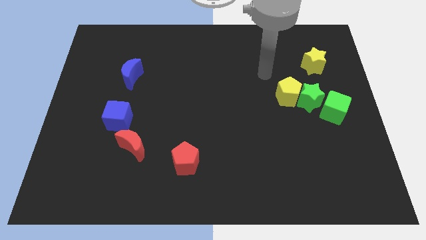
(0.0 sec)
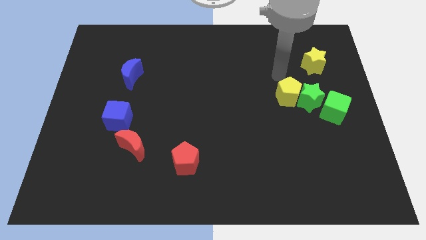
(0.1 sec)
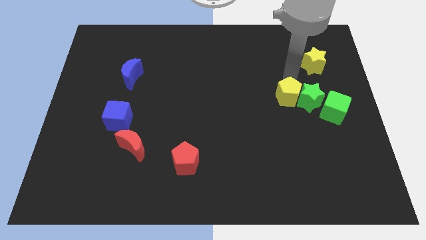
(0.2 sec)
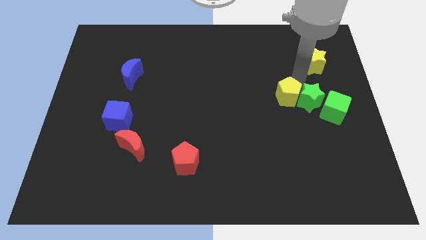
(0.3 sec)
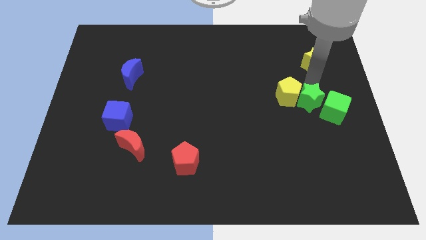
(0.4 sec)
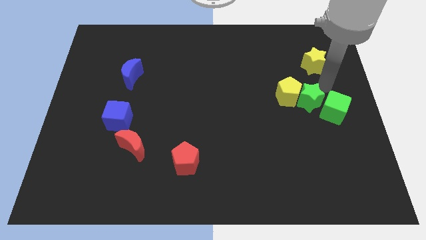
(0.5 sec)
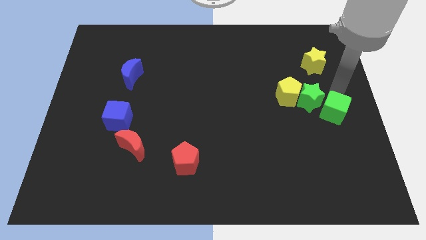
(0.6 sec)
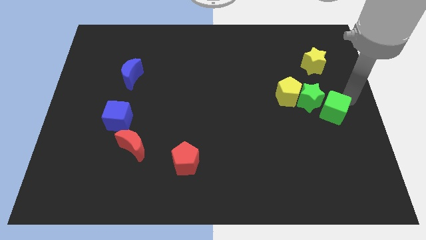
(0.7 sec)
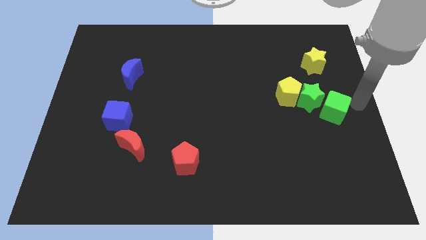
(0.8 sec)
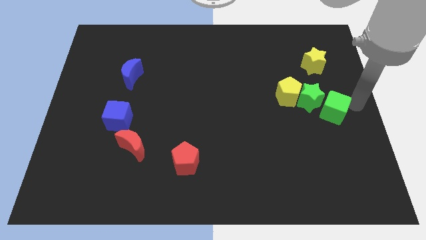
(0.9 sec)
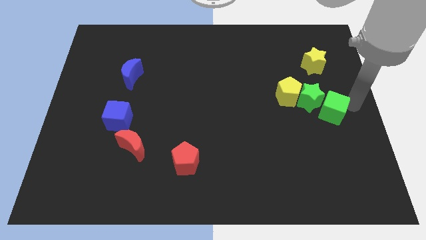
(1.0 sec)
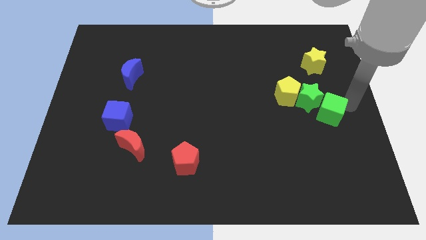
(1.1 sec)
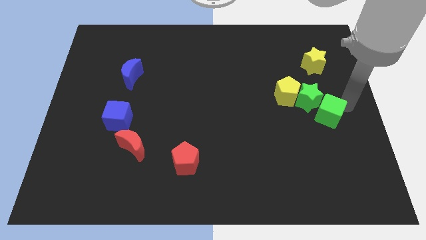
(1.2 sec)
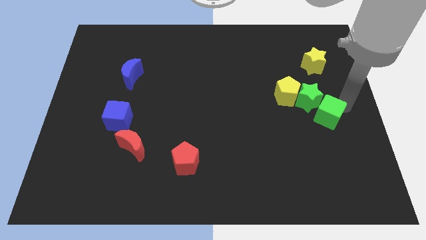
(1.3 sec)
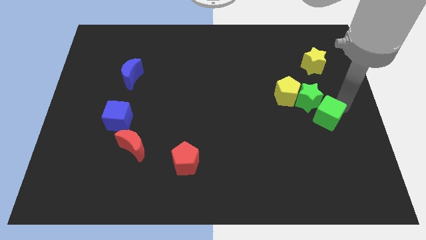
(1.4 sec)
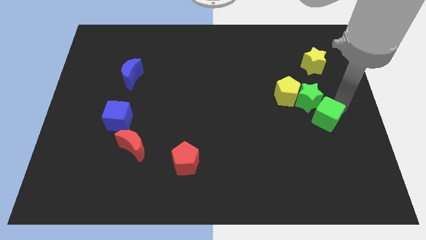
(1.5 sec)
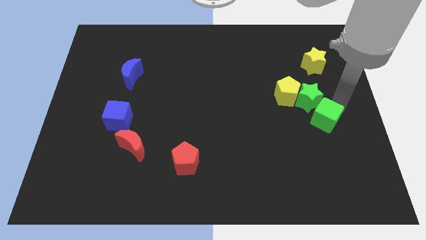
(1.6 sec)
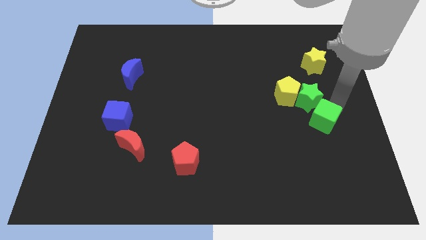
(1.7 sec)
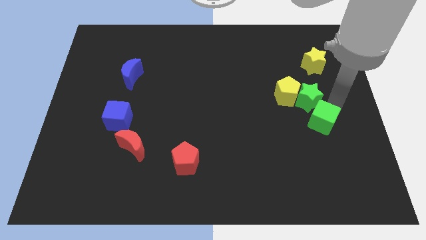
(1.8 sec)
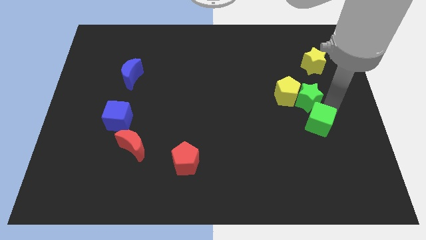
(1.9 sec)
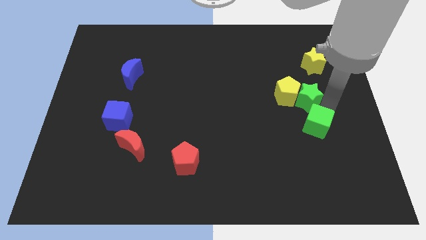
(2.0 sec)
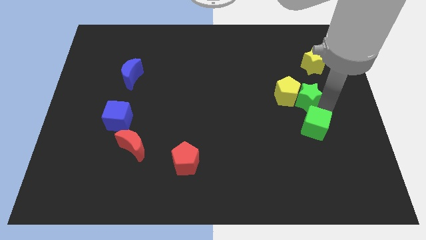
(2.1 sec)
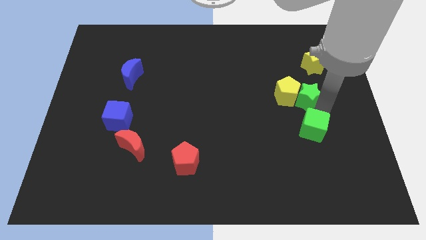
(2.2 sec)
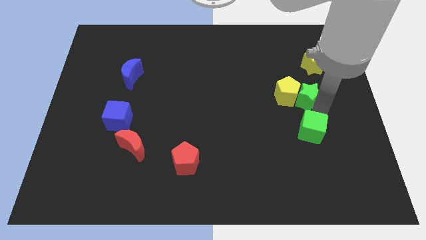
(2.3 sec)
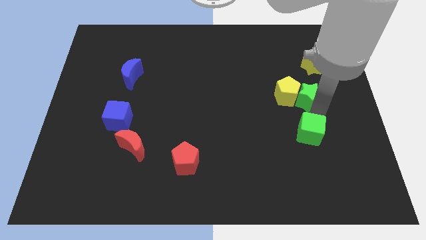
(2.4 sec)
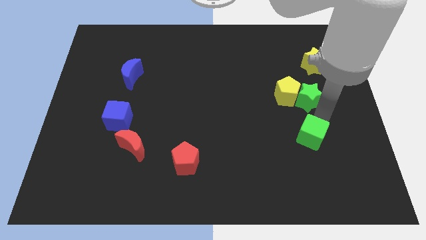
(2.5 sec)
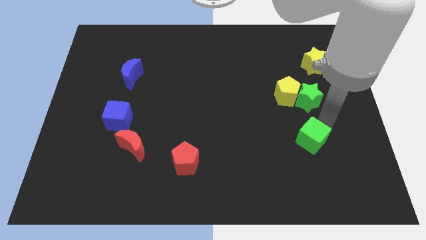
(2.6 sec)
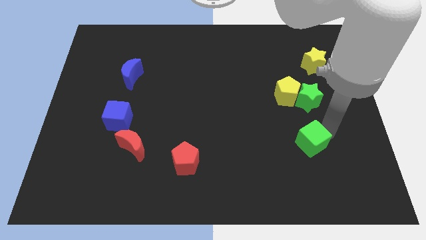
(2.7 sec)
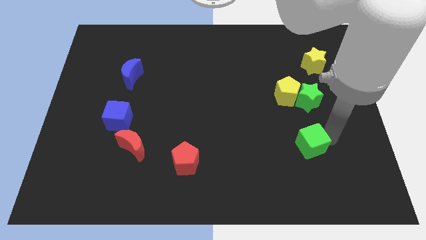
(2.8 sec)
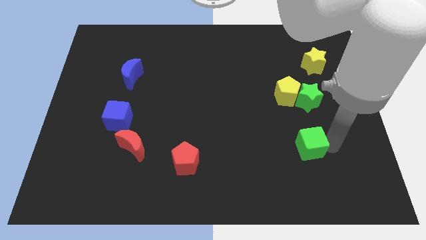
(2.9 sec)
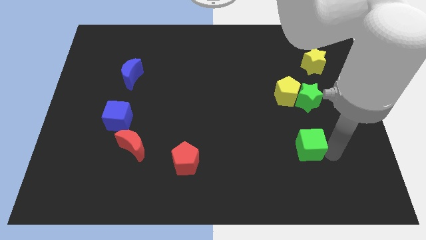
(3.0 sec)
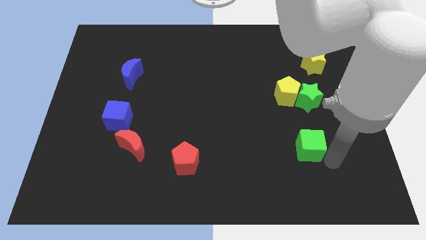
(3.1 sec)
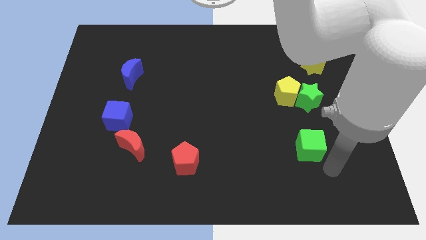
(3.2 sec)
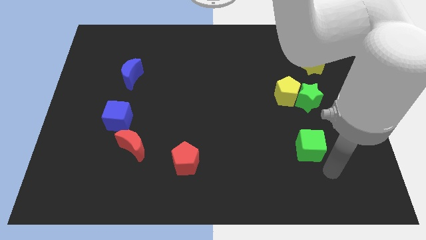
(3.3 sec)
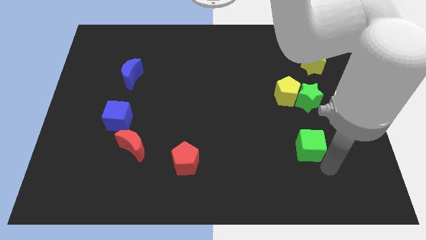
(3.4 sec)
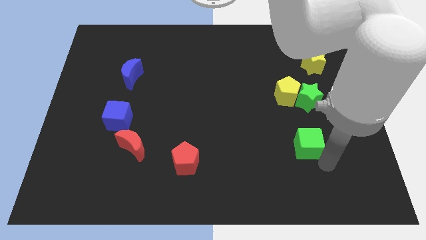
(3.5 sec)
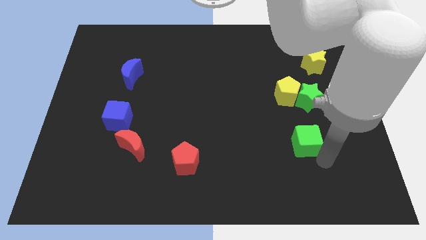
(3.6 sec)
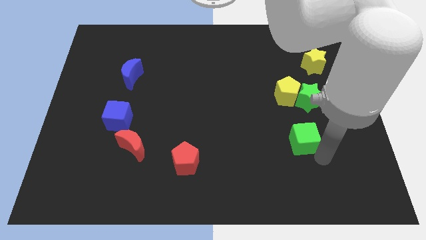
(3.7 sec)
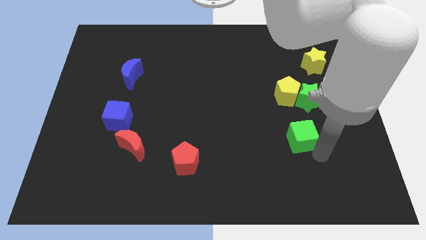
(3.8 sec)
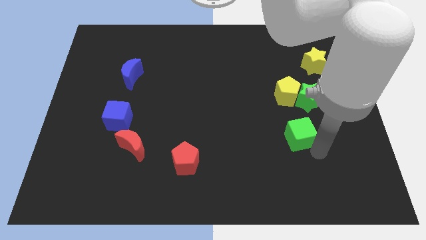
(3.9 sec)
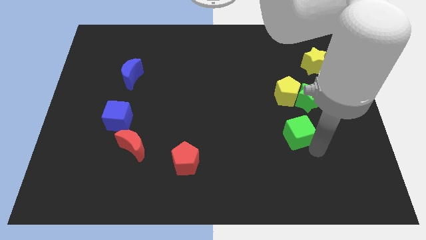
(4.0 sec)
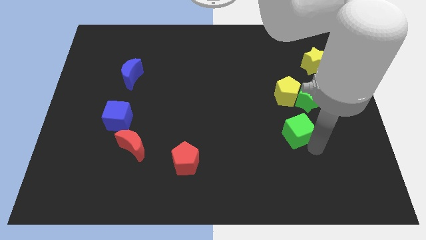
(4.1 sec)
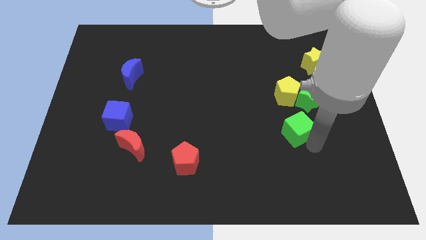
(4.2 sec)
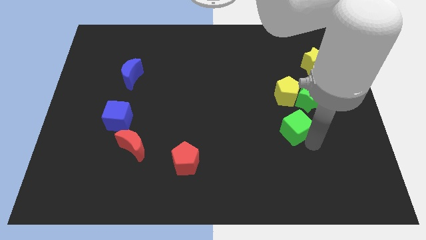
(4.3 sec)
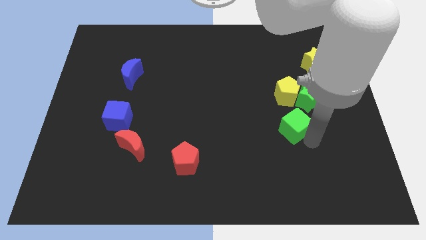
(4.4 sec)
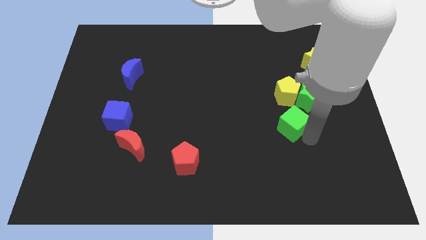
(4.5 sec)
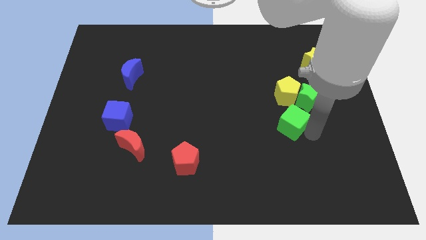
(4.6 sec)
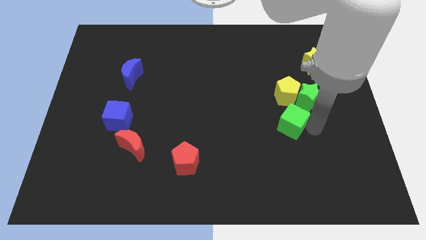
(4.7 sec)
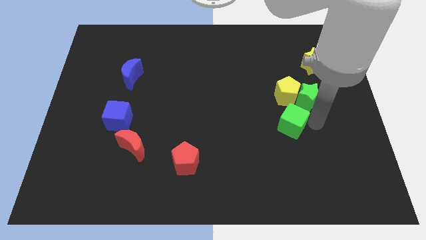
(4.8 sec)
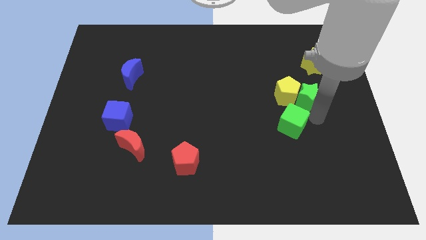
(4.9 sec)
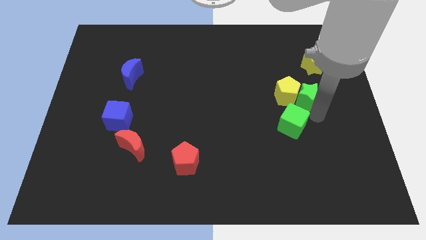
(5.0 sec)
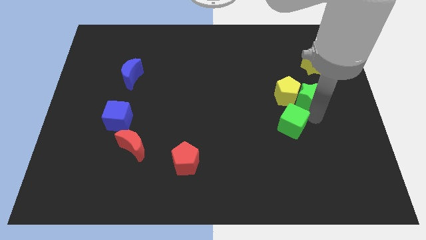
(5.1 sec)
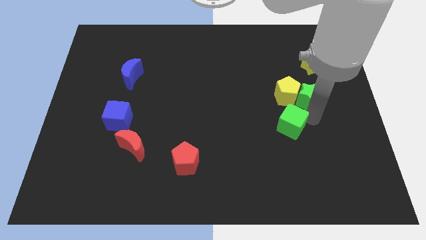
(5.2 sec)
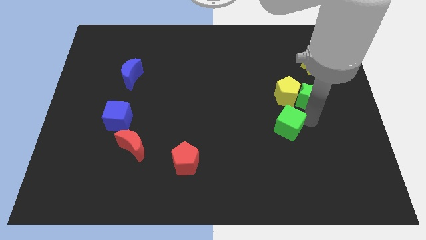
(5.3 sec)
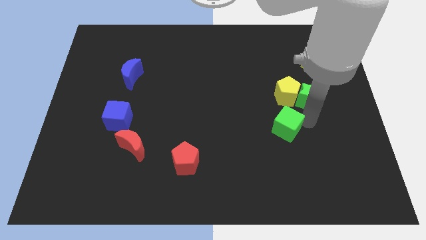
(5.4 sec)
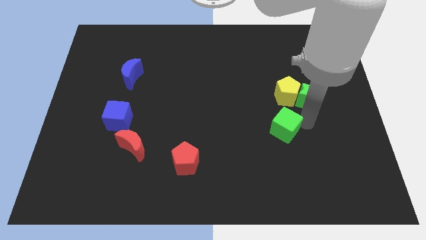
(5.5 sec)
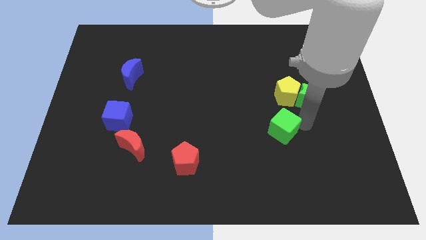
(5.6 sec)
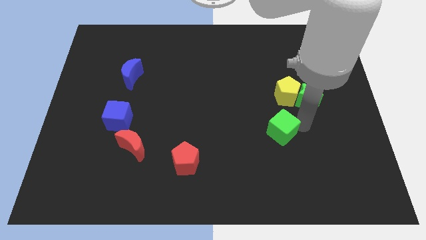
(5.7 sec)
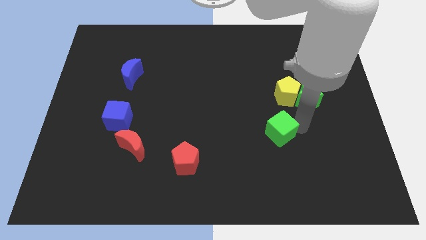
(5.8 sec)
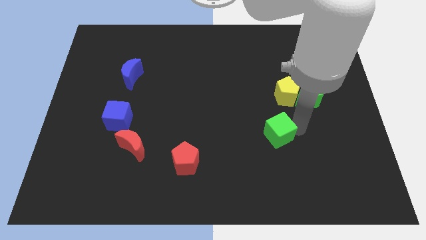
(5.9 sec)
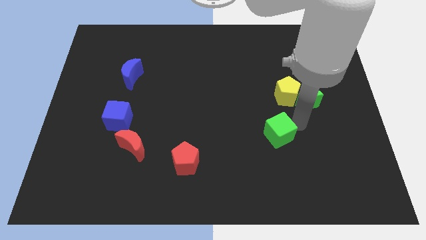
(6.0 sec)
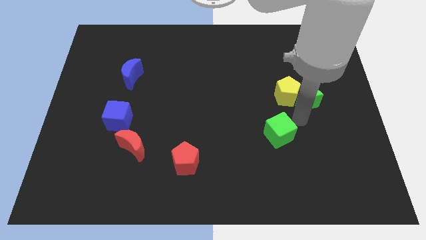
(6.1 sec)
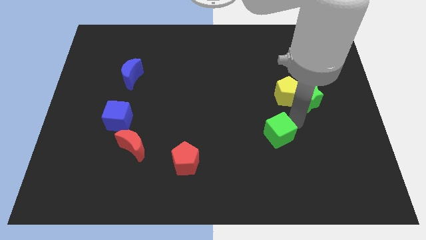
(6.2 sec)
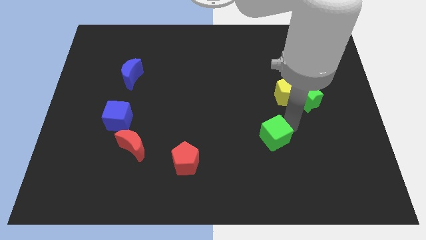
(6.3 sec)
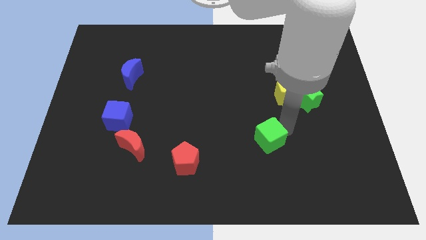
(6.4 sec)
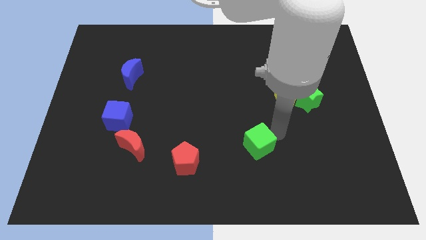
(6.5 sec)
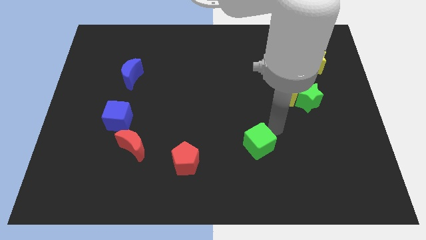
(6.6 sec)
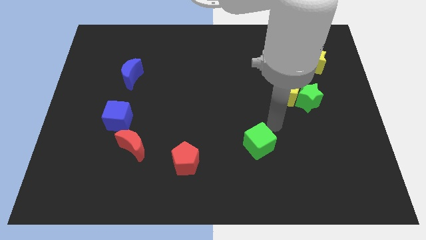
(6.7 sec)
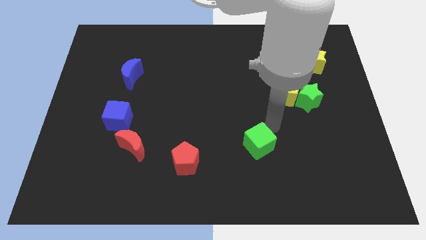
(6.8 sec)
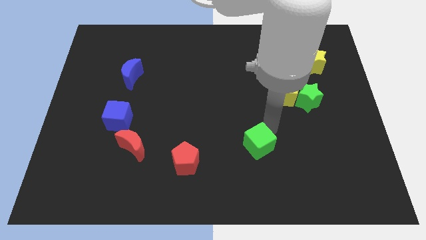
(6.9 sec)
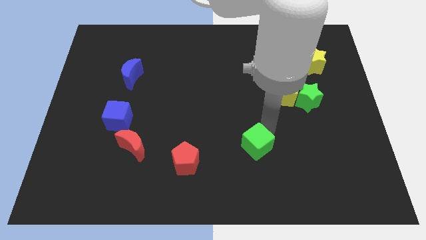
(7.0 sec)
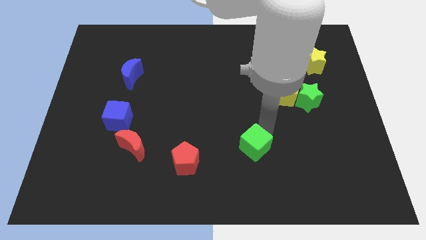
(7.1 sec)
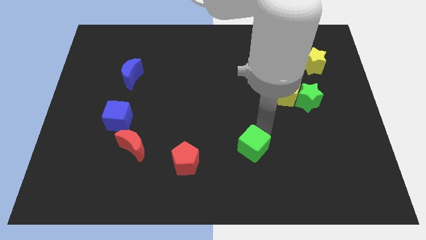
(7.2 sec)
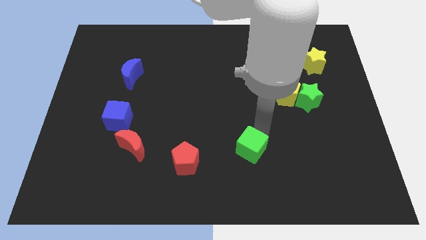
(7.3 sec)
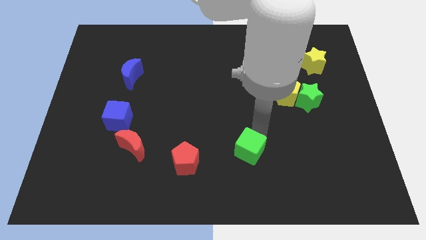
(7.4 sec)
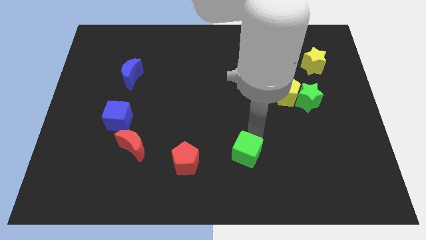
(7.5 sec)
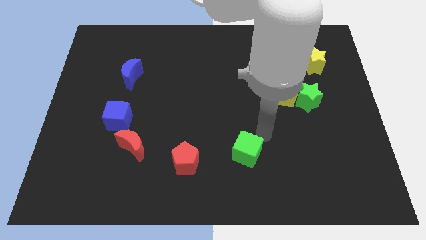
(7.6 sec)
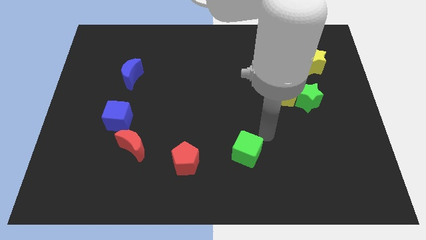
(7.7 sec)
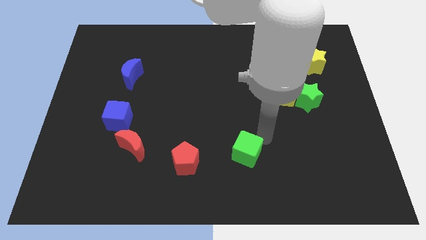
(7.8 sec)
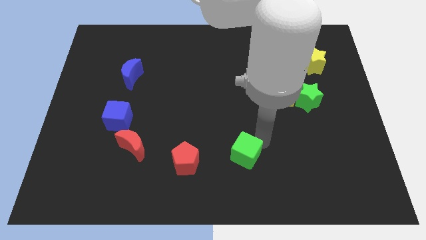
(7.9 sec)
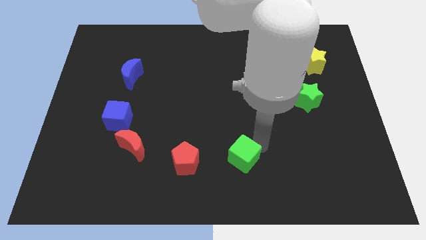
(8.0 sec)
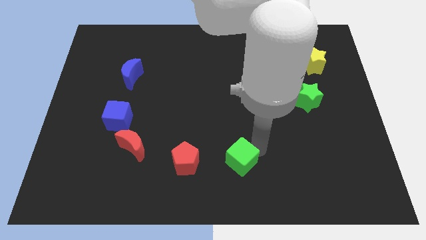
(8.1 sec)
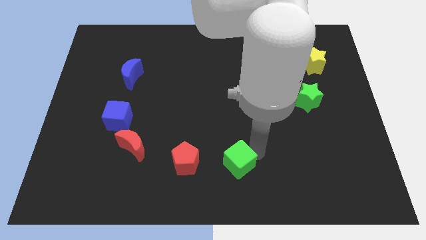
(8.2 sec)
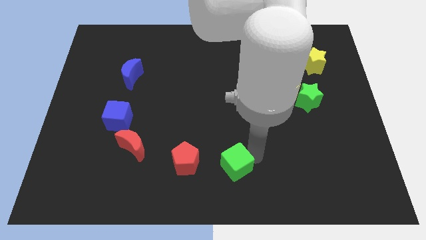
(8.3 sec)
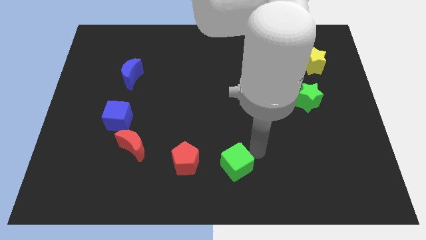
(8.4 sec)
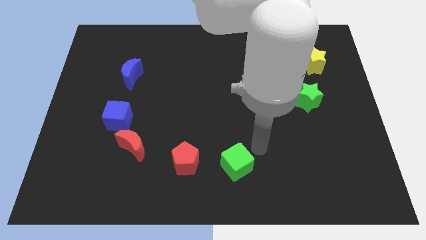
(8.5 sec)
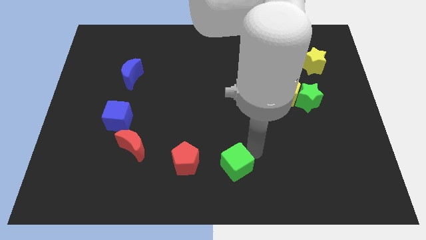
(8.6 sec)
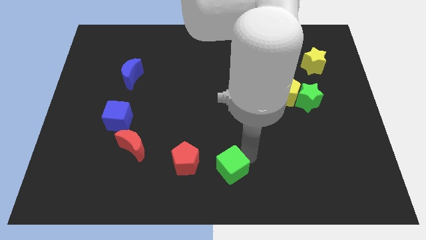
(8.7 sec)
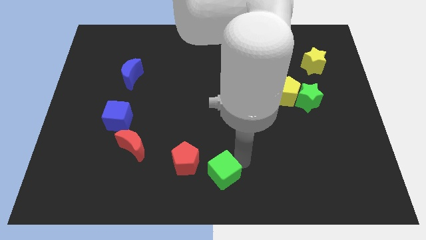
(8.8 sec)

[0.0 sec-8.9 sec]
slide the green cube diagonally down and to the right of the red pentagon
